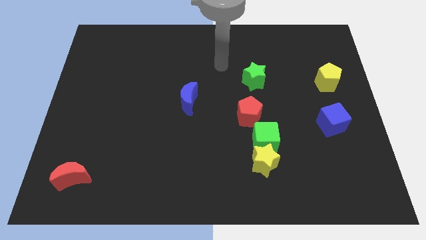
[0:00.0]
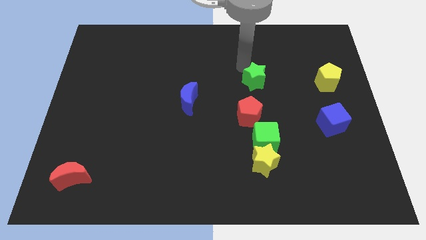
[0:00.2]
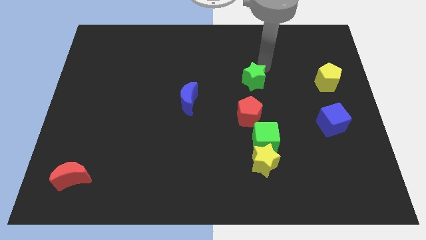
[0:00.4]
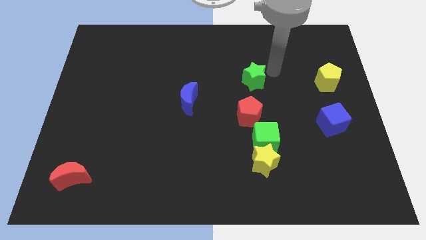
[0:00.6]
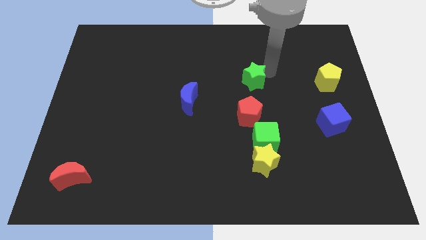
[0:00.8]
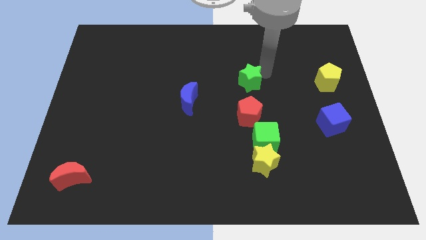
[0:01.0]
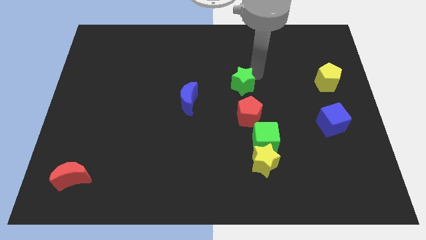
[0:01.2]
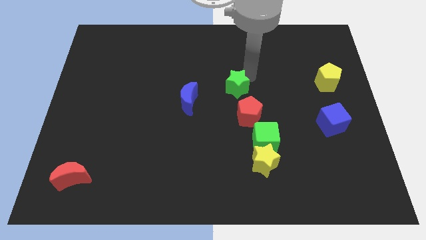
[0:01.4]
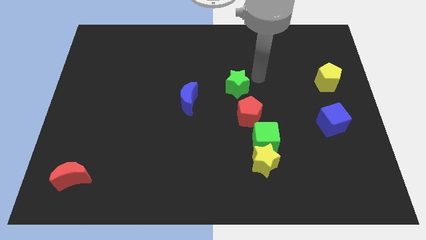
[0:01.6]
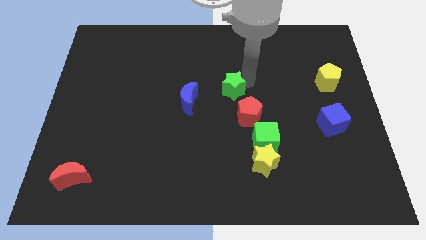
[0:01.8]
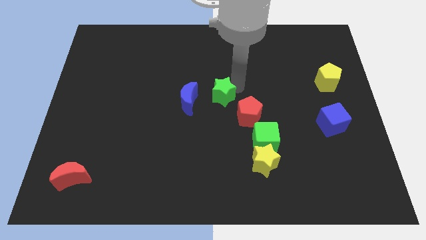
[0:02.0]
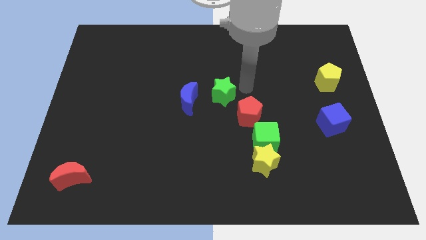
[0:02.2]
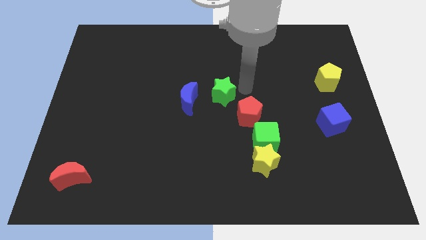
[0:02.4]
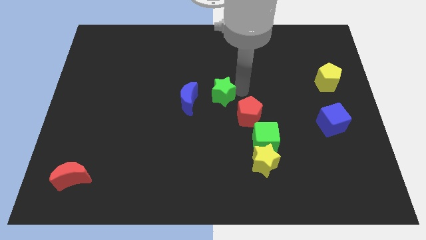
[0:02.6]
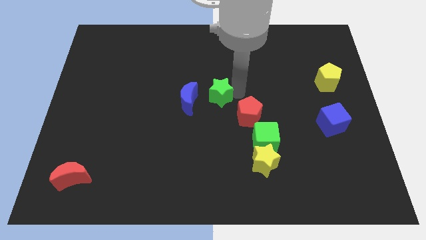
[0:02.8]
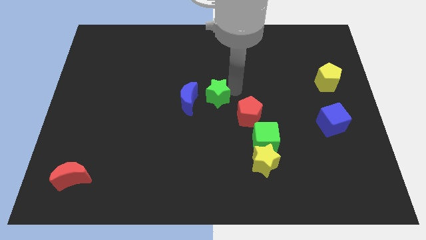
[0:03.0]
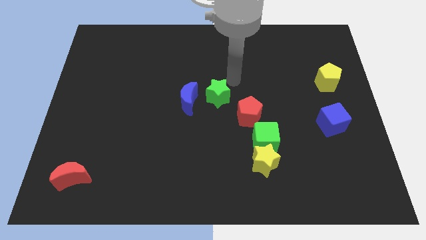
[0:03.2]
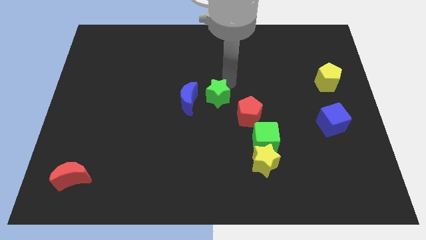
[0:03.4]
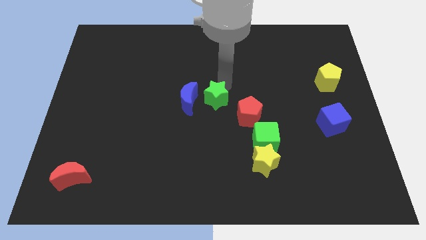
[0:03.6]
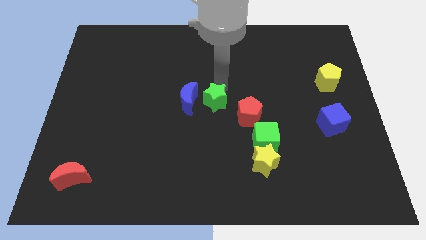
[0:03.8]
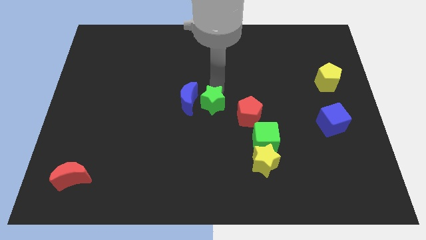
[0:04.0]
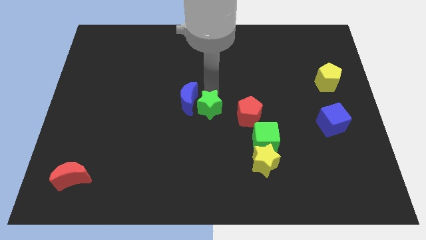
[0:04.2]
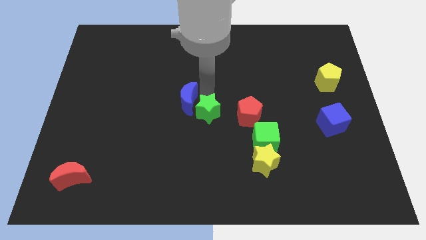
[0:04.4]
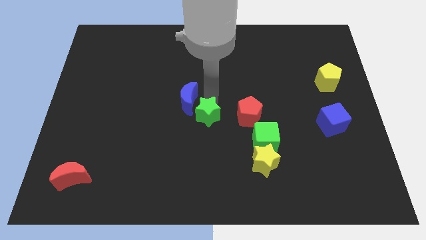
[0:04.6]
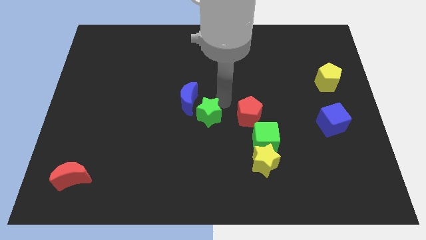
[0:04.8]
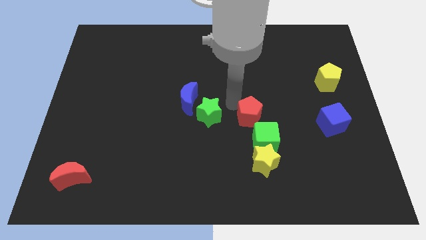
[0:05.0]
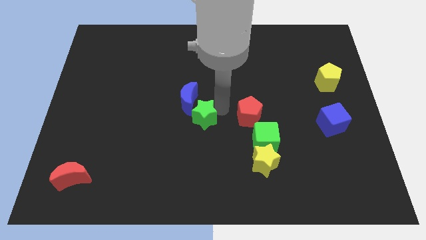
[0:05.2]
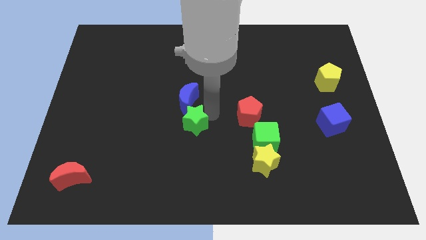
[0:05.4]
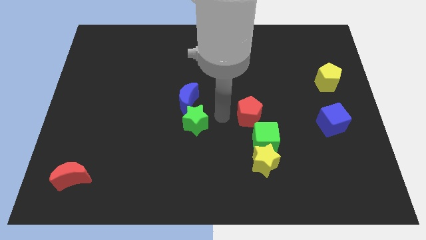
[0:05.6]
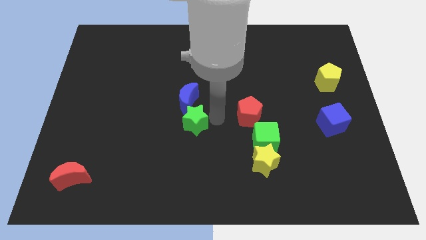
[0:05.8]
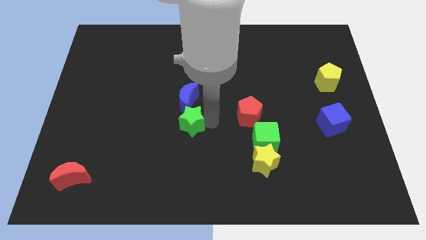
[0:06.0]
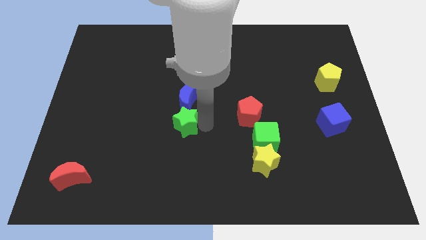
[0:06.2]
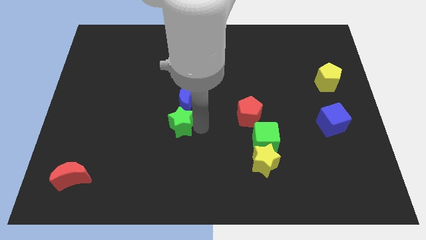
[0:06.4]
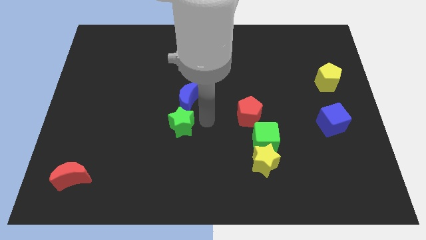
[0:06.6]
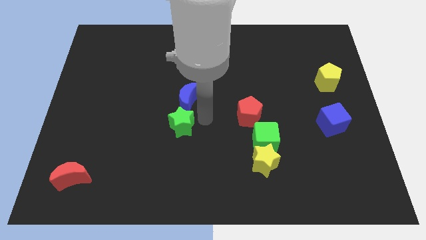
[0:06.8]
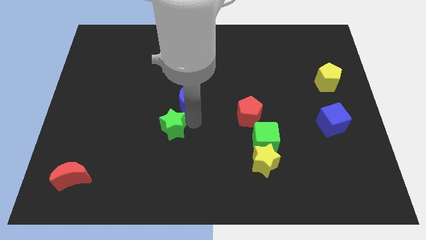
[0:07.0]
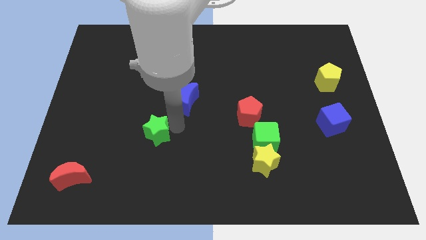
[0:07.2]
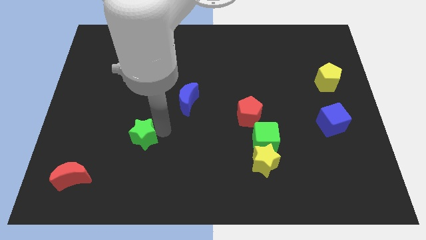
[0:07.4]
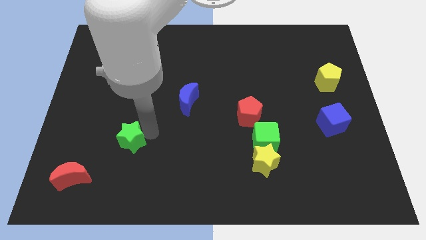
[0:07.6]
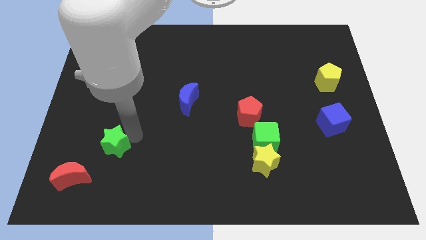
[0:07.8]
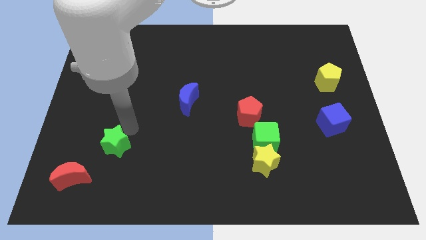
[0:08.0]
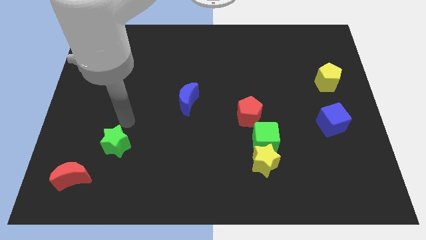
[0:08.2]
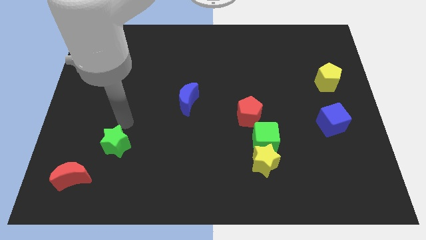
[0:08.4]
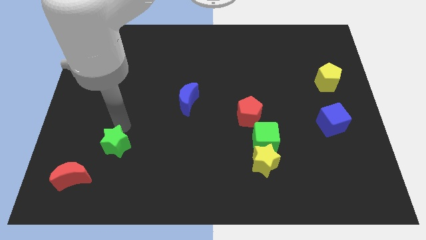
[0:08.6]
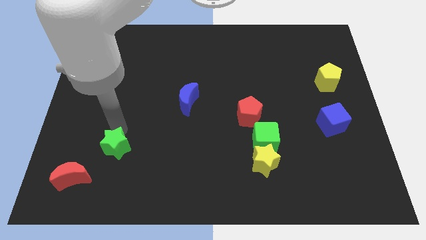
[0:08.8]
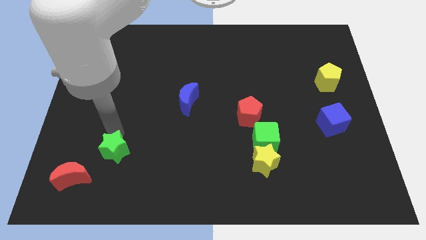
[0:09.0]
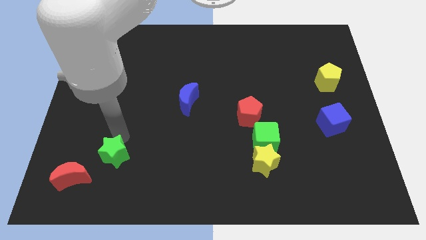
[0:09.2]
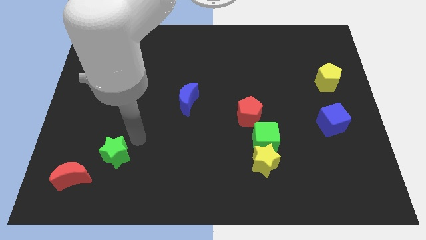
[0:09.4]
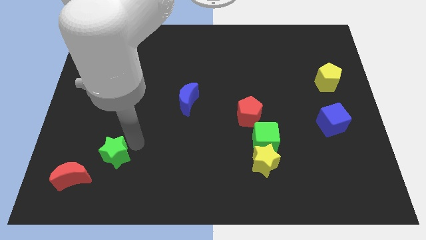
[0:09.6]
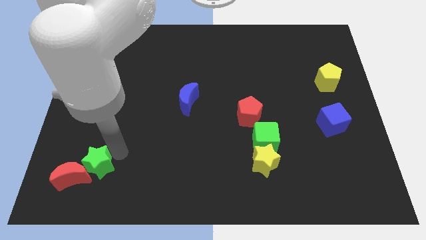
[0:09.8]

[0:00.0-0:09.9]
move the green star to the red moon

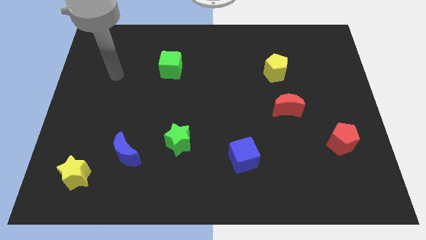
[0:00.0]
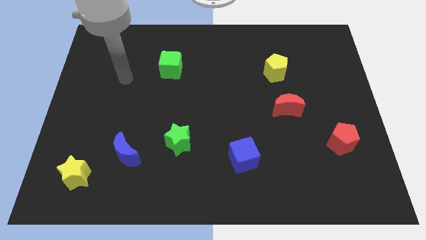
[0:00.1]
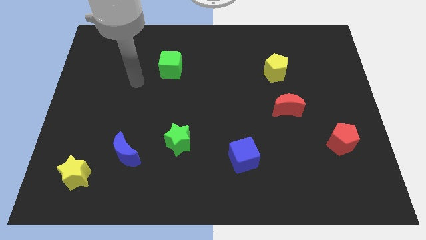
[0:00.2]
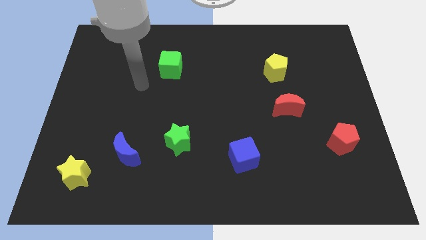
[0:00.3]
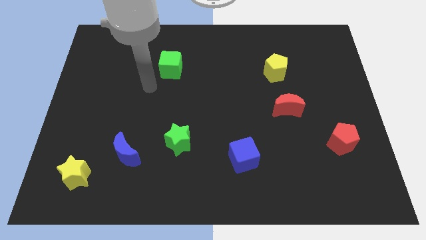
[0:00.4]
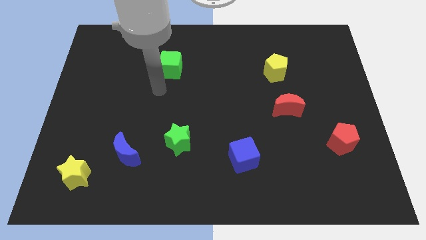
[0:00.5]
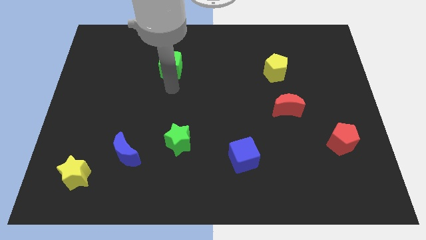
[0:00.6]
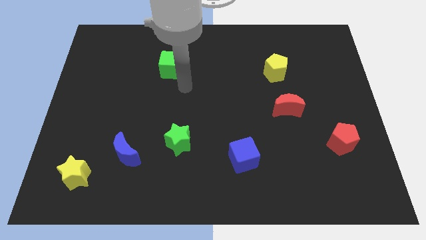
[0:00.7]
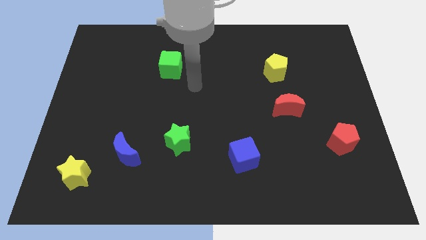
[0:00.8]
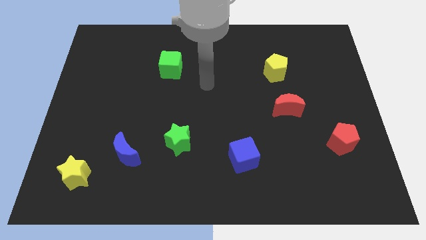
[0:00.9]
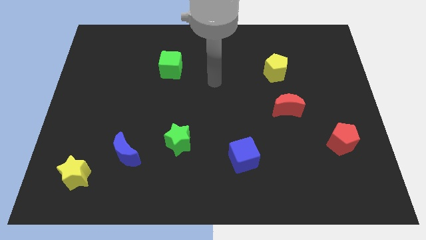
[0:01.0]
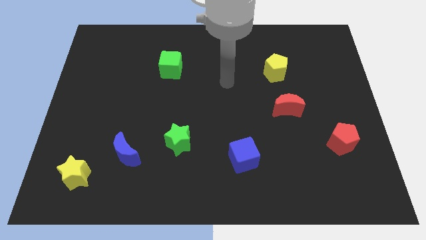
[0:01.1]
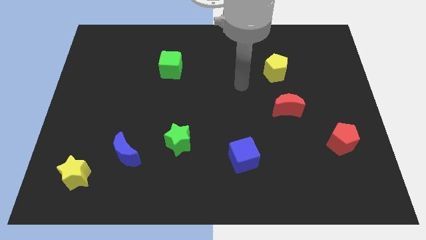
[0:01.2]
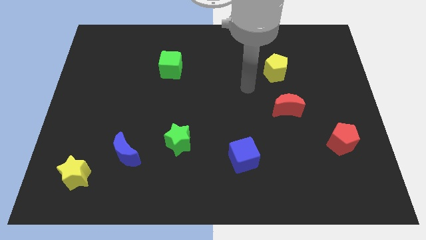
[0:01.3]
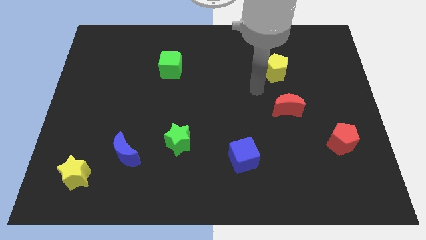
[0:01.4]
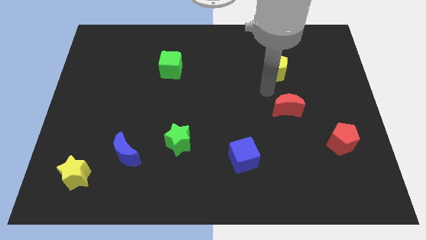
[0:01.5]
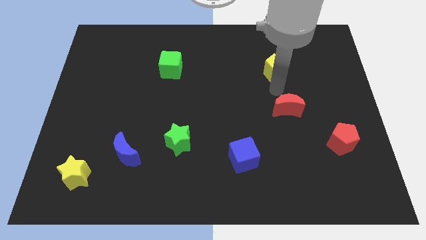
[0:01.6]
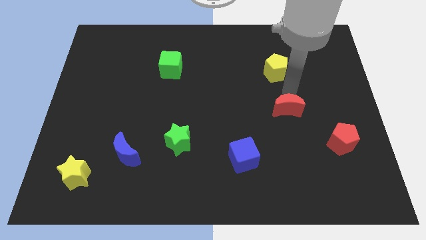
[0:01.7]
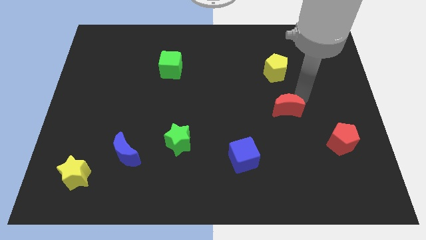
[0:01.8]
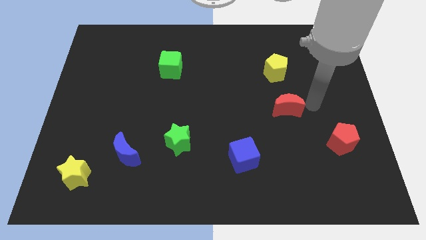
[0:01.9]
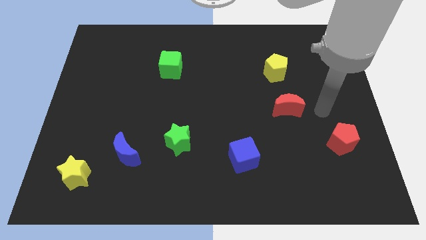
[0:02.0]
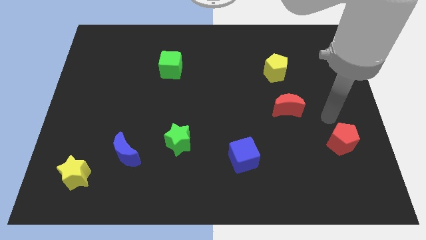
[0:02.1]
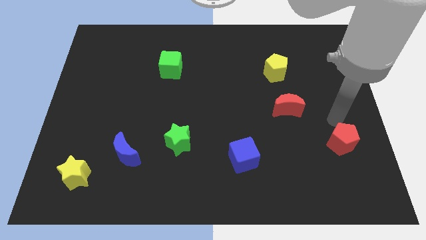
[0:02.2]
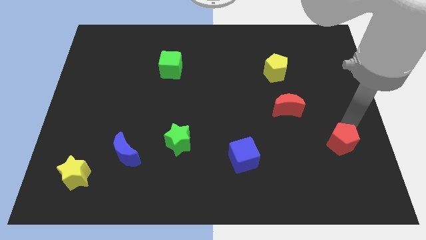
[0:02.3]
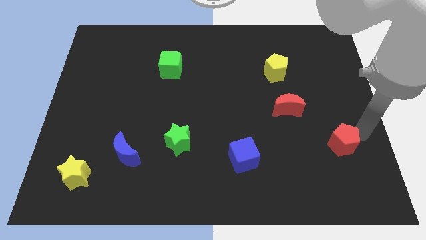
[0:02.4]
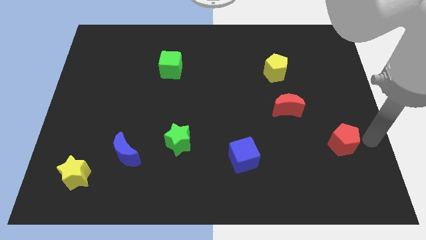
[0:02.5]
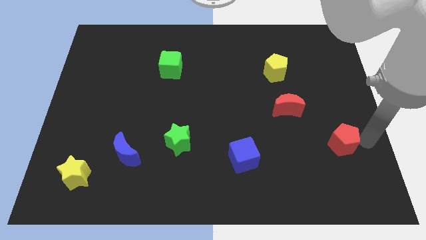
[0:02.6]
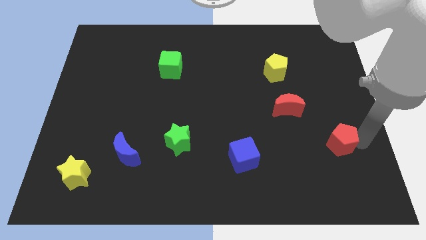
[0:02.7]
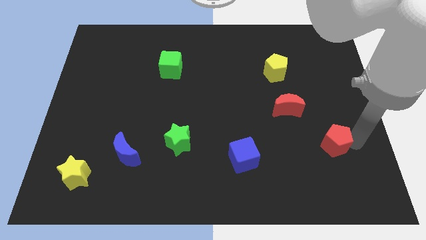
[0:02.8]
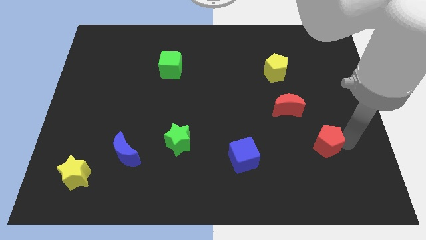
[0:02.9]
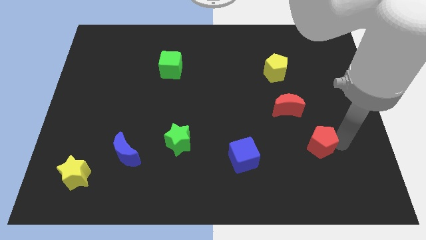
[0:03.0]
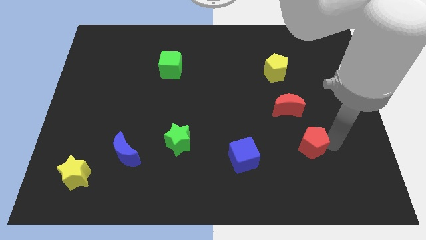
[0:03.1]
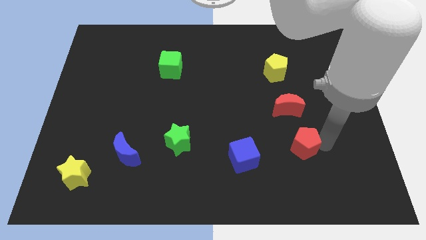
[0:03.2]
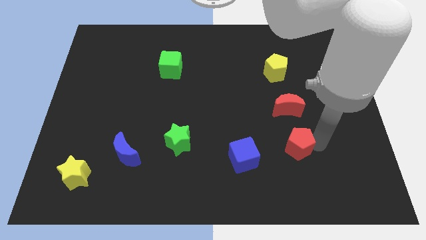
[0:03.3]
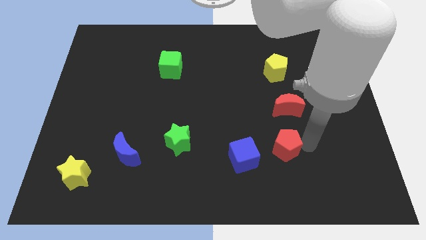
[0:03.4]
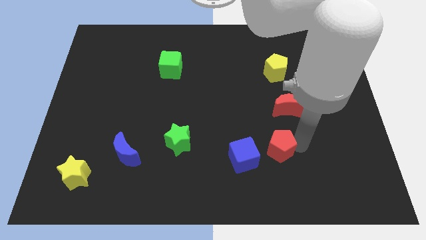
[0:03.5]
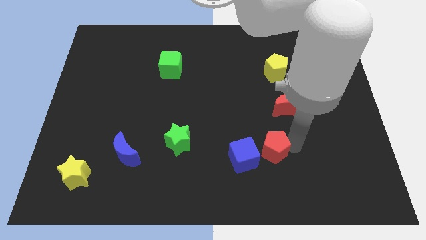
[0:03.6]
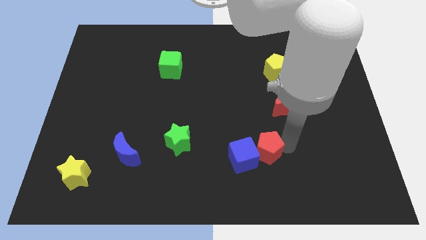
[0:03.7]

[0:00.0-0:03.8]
move the red pentagon close to the blue cube
